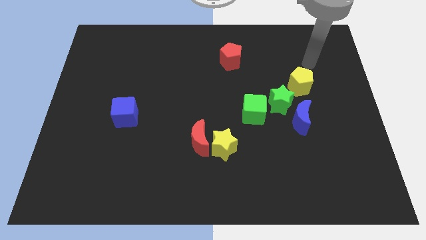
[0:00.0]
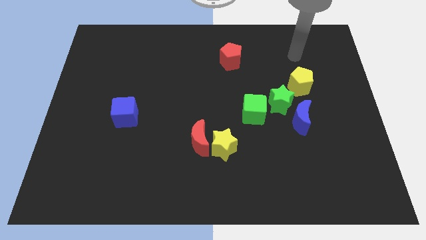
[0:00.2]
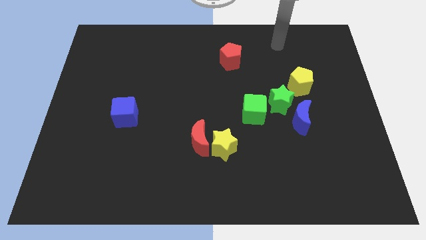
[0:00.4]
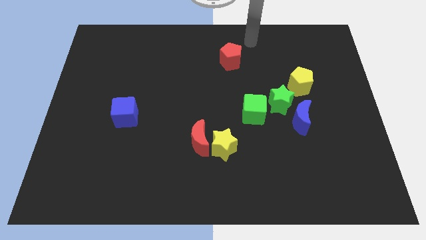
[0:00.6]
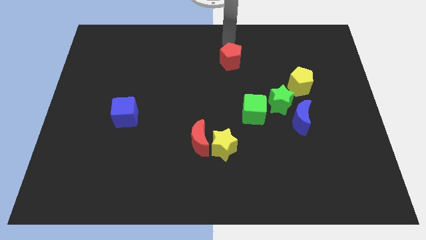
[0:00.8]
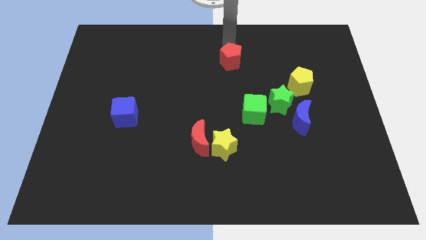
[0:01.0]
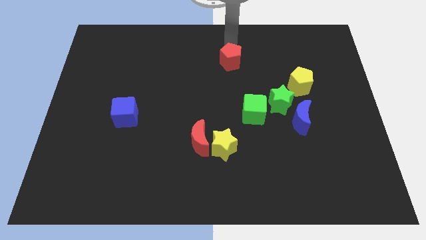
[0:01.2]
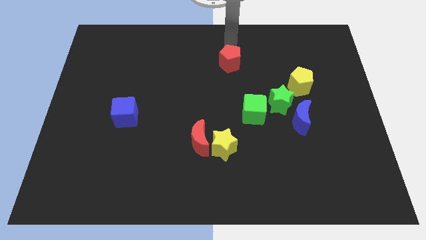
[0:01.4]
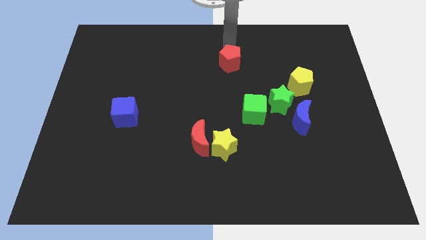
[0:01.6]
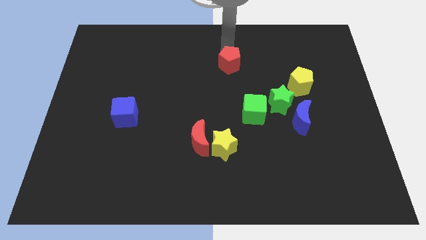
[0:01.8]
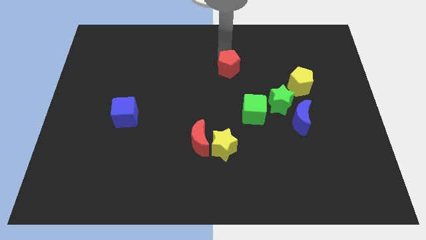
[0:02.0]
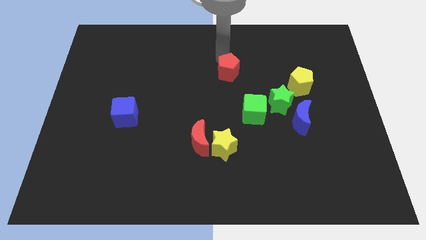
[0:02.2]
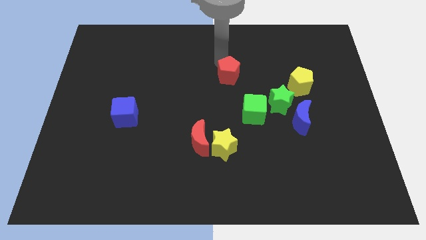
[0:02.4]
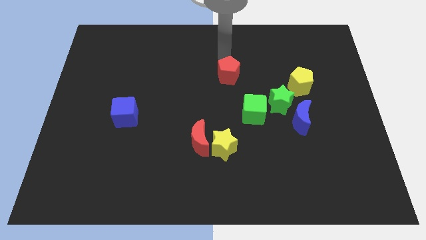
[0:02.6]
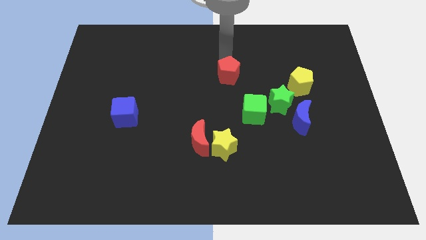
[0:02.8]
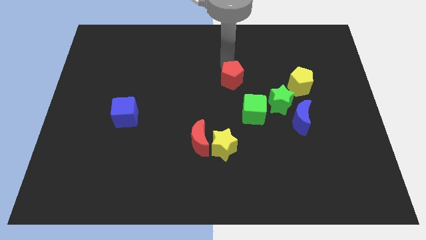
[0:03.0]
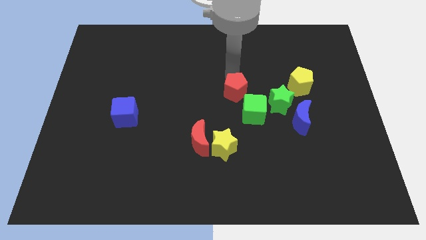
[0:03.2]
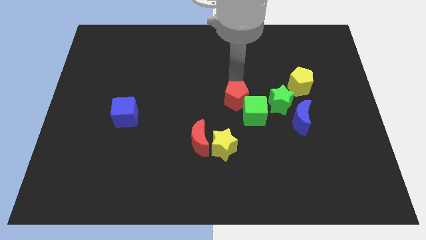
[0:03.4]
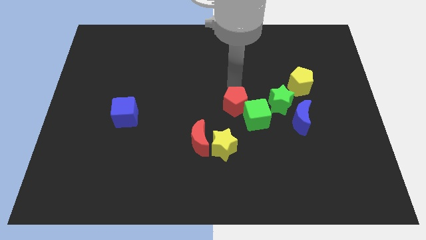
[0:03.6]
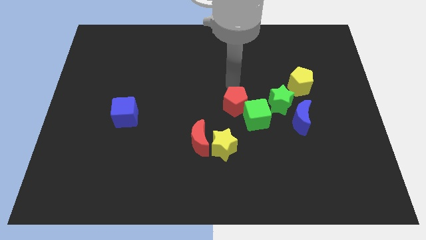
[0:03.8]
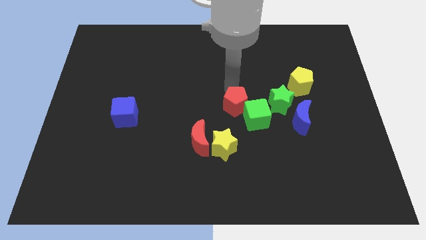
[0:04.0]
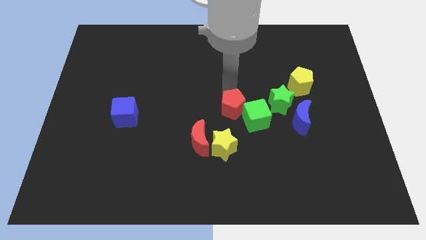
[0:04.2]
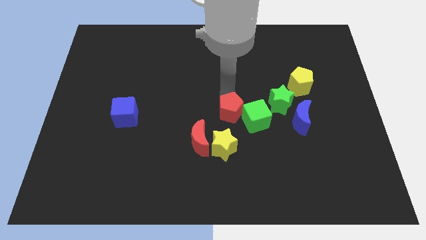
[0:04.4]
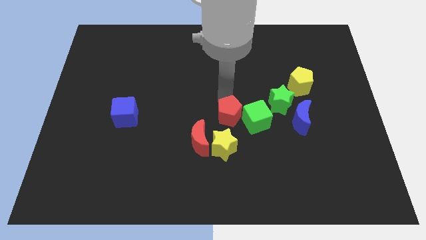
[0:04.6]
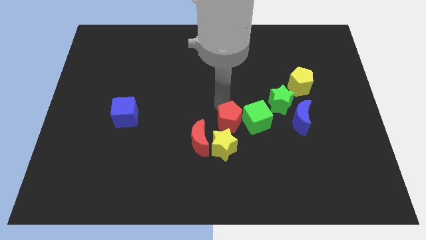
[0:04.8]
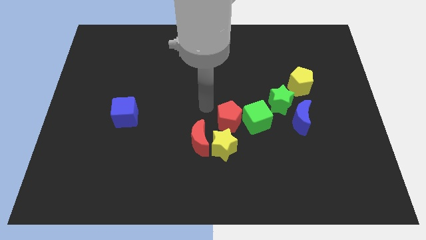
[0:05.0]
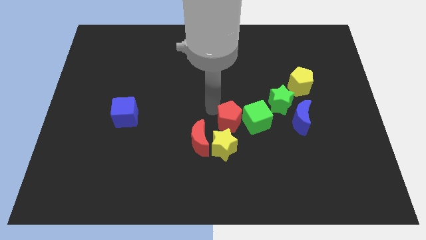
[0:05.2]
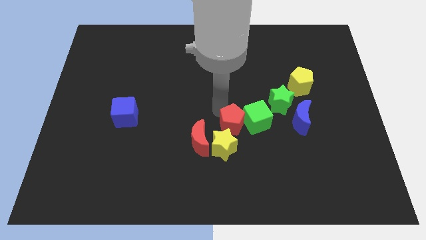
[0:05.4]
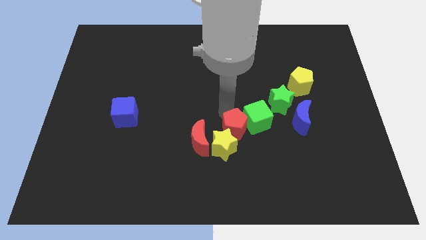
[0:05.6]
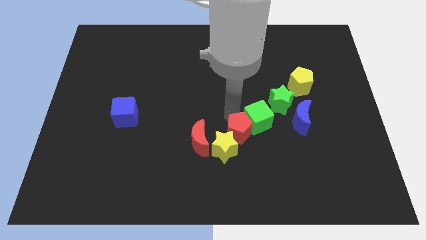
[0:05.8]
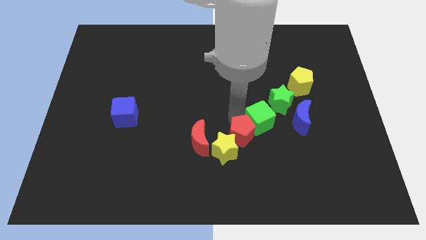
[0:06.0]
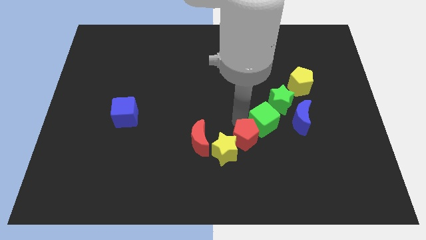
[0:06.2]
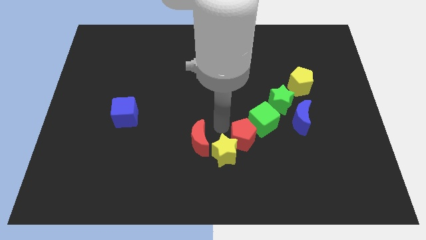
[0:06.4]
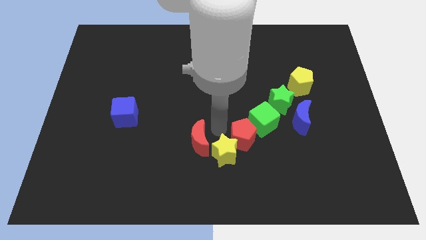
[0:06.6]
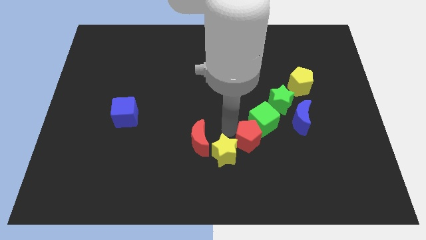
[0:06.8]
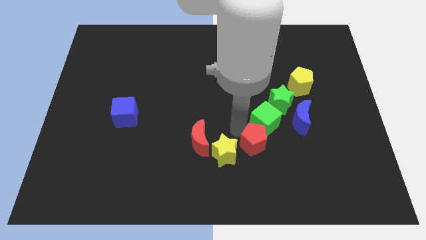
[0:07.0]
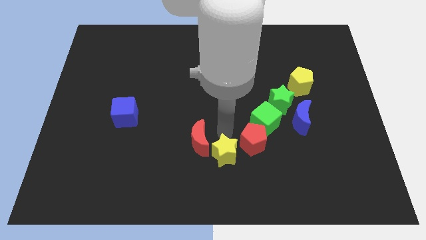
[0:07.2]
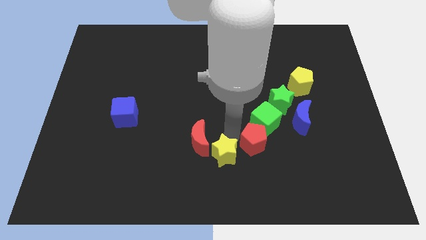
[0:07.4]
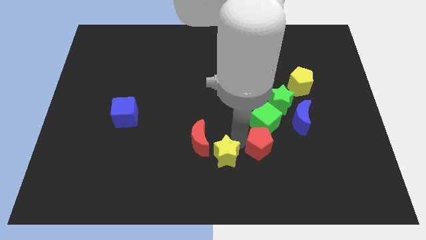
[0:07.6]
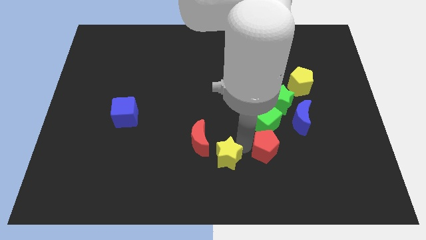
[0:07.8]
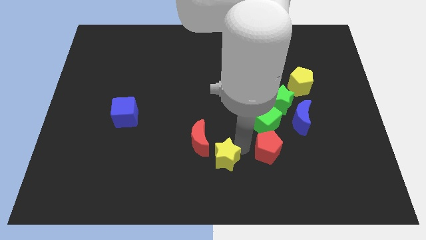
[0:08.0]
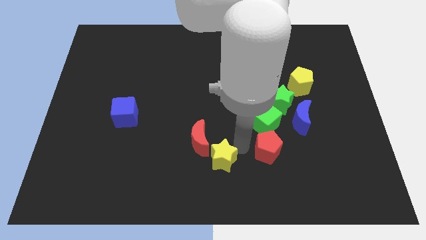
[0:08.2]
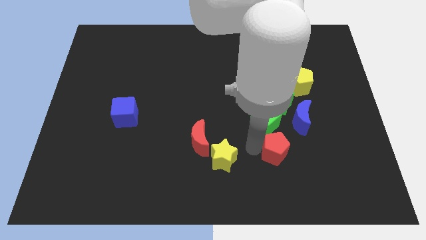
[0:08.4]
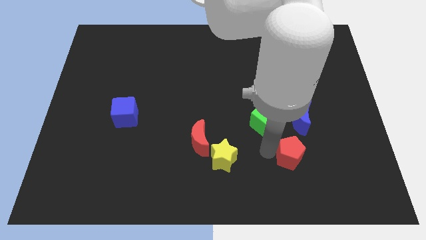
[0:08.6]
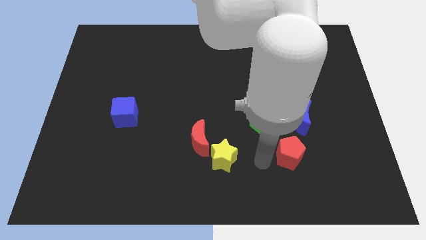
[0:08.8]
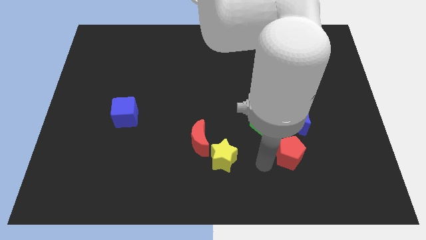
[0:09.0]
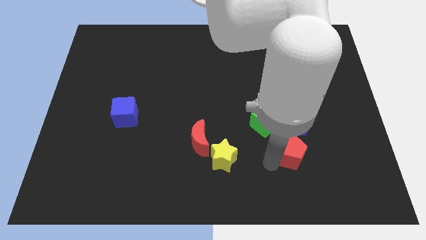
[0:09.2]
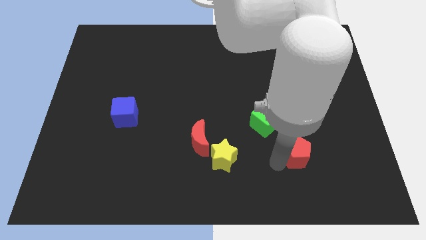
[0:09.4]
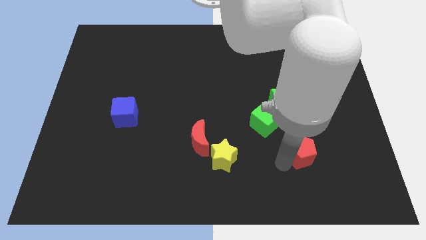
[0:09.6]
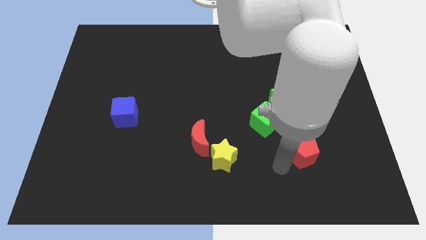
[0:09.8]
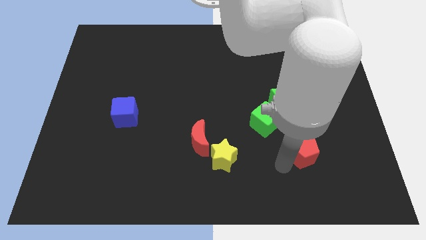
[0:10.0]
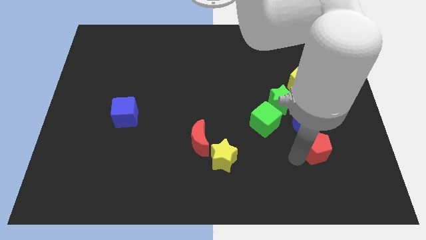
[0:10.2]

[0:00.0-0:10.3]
put the red pentagon diagonally down and to the right of the blue moon

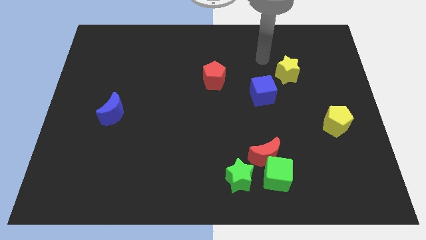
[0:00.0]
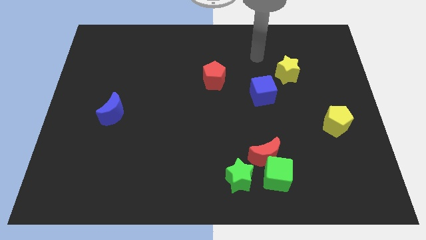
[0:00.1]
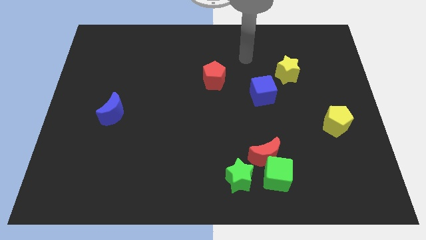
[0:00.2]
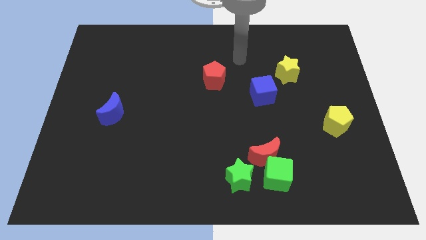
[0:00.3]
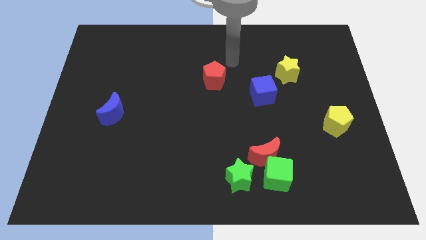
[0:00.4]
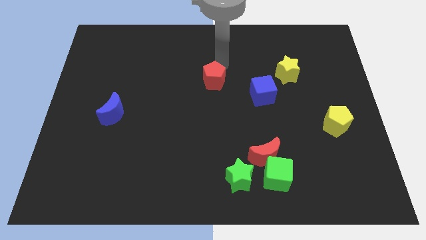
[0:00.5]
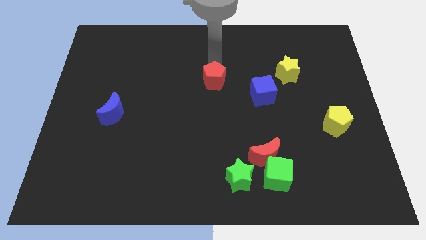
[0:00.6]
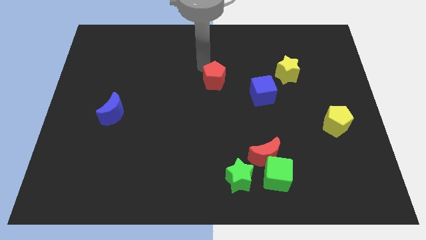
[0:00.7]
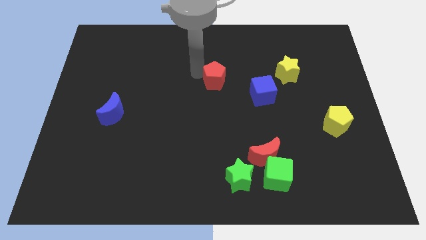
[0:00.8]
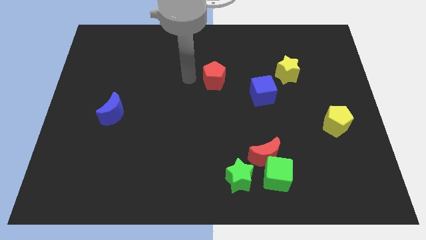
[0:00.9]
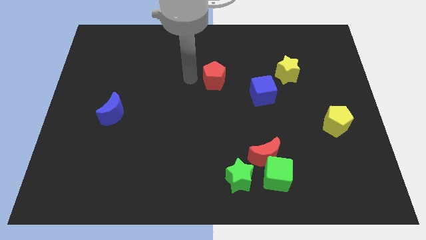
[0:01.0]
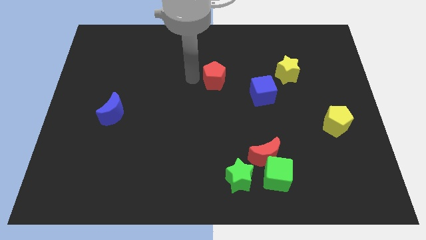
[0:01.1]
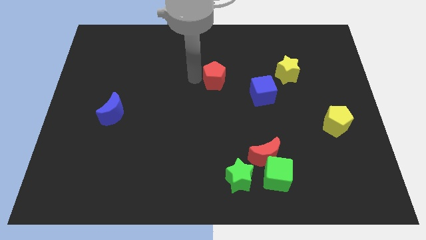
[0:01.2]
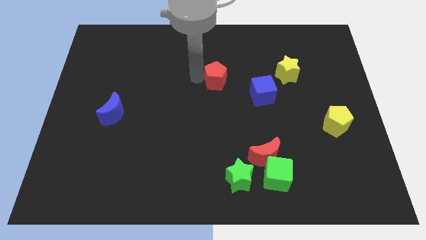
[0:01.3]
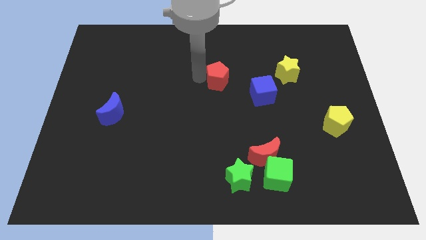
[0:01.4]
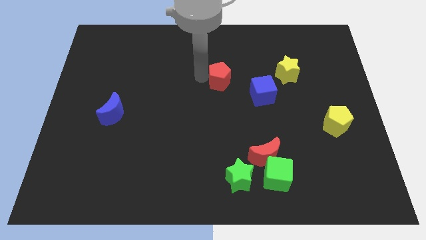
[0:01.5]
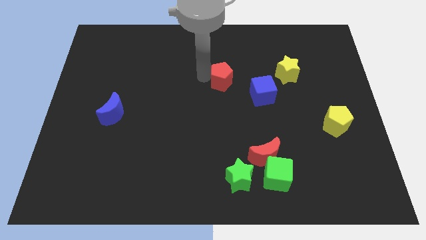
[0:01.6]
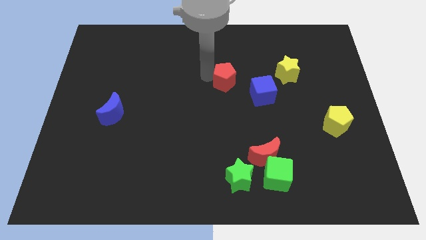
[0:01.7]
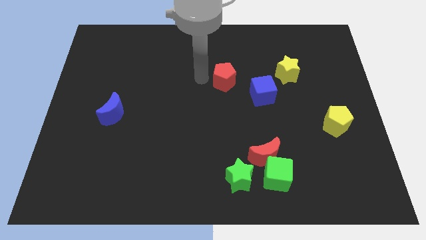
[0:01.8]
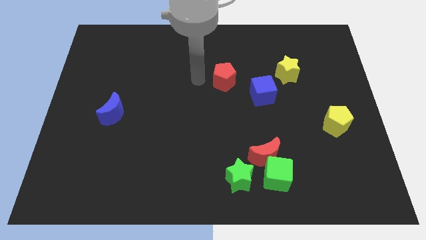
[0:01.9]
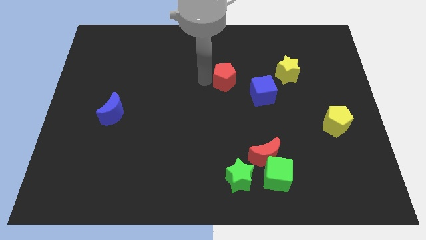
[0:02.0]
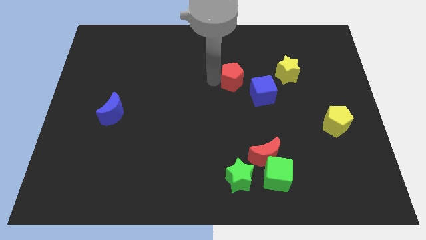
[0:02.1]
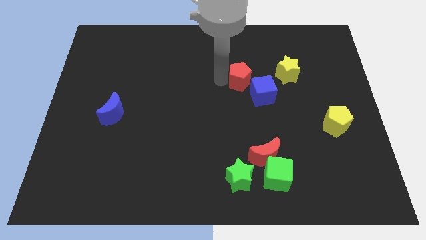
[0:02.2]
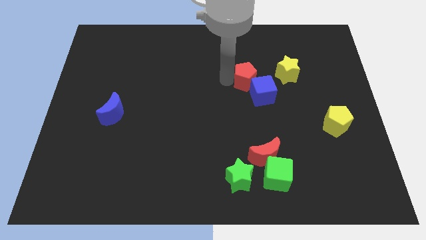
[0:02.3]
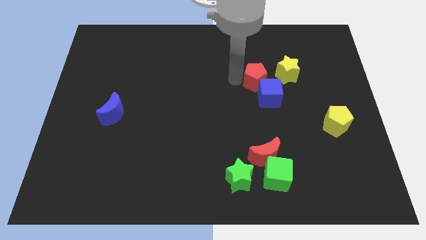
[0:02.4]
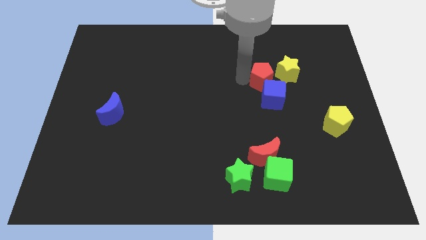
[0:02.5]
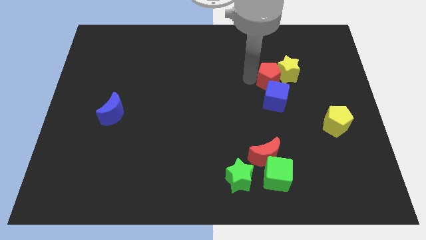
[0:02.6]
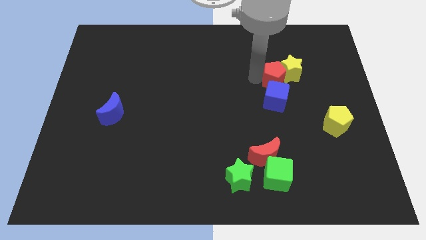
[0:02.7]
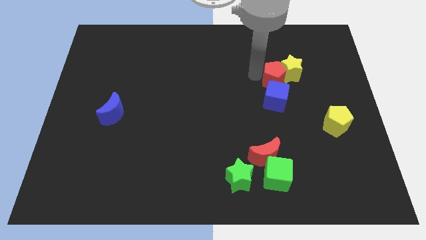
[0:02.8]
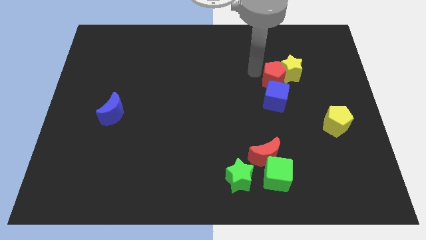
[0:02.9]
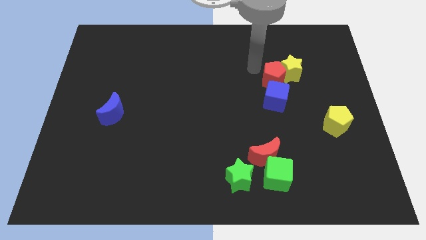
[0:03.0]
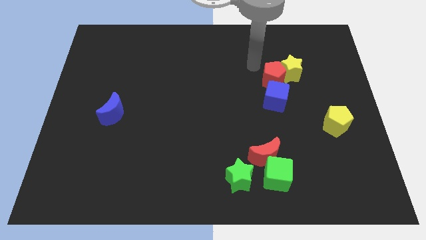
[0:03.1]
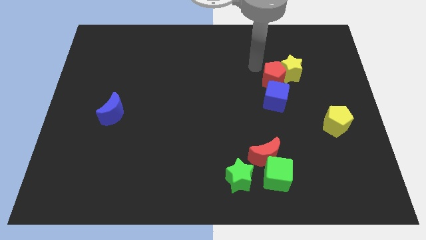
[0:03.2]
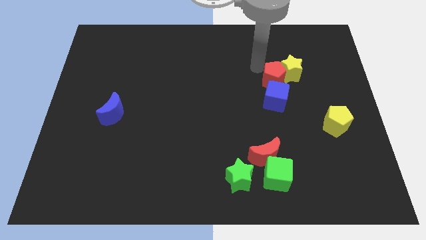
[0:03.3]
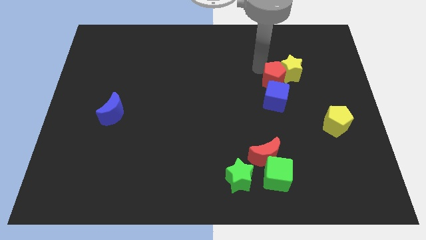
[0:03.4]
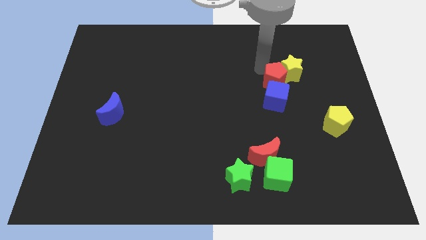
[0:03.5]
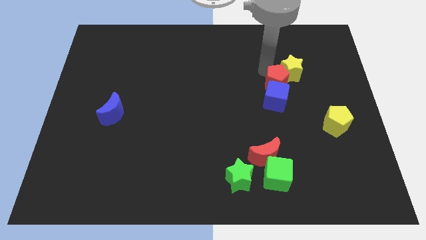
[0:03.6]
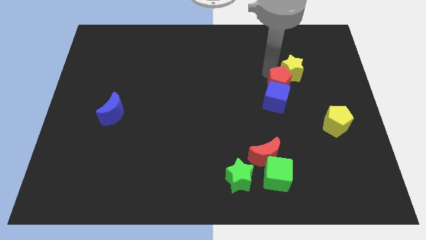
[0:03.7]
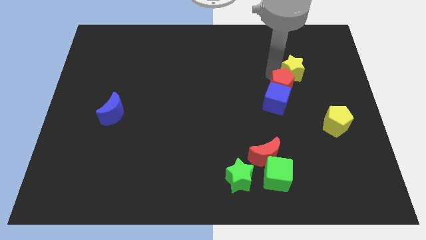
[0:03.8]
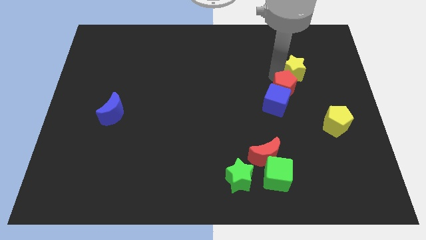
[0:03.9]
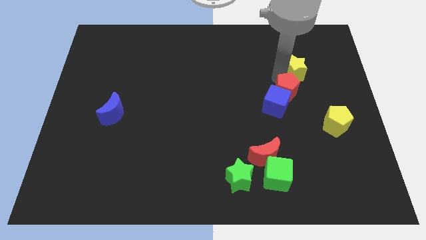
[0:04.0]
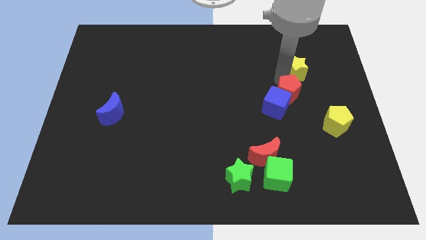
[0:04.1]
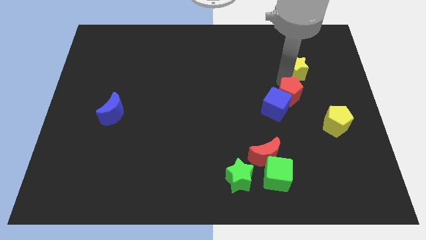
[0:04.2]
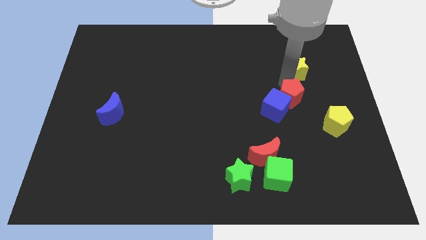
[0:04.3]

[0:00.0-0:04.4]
move the red pentagon to the top left of the yellow pentagon
